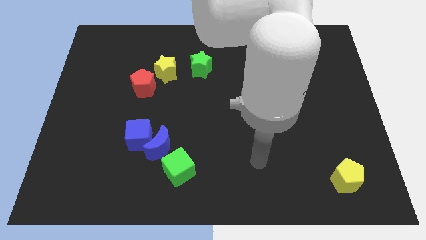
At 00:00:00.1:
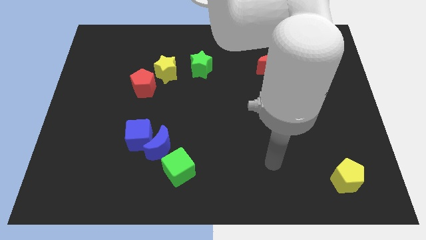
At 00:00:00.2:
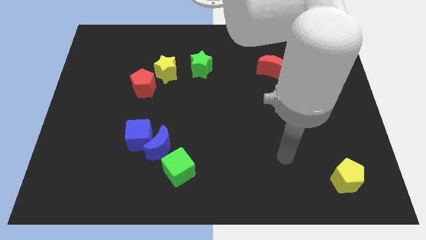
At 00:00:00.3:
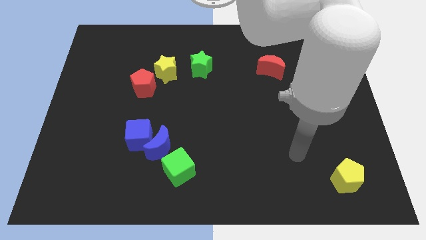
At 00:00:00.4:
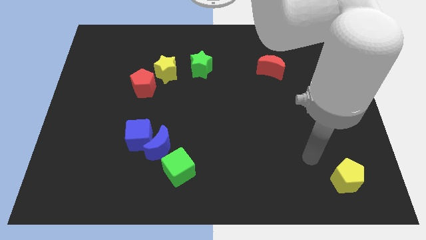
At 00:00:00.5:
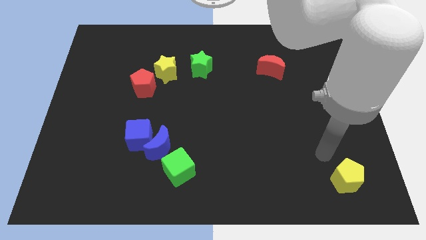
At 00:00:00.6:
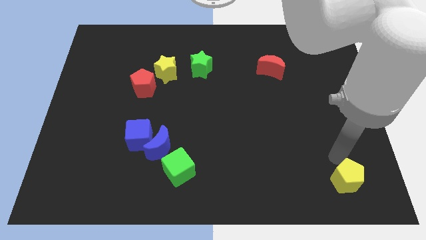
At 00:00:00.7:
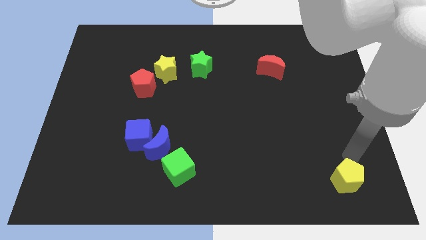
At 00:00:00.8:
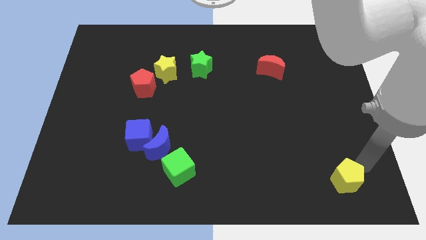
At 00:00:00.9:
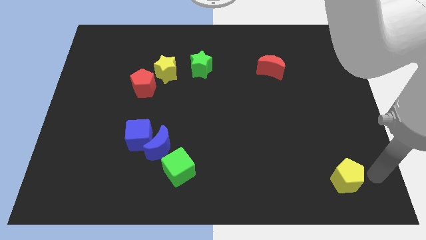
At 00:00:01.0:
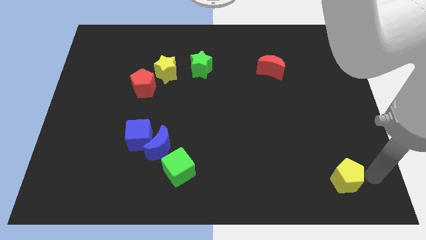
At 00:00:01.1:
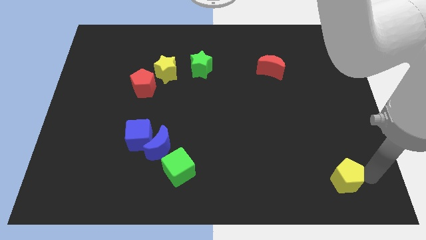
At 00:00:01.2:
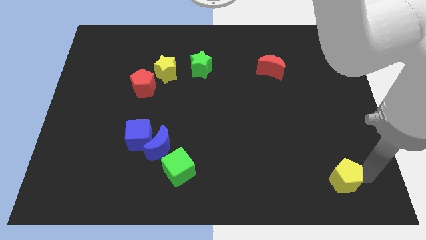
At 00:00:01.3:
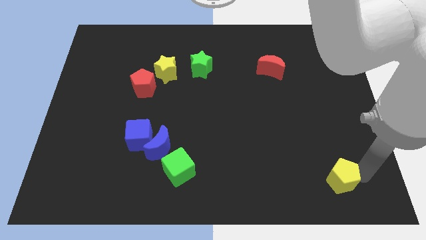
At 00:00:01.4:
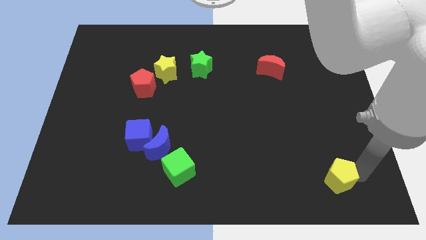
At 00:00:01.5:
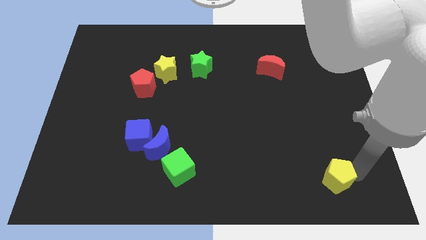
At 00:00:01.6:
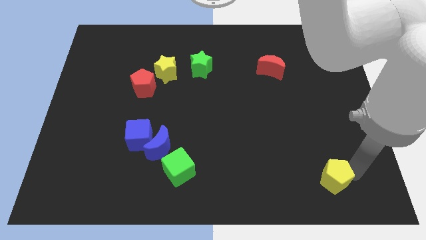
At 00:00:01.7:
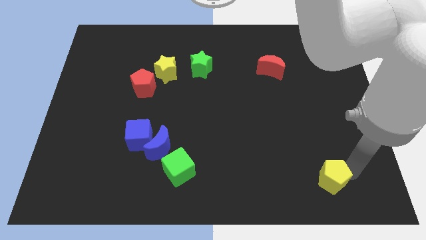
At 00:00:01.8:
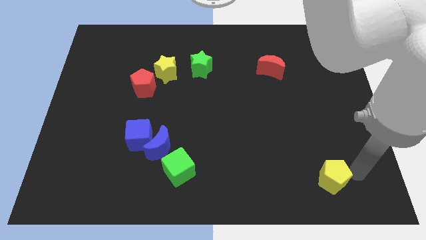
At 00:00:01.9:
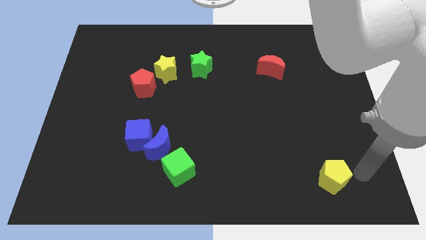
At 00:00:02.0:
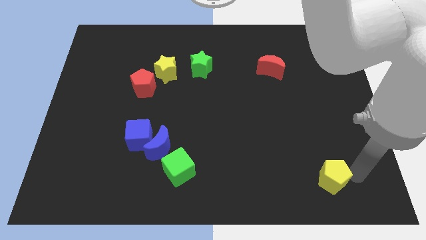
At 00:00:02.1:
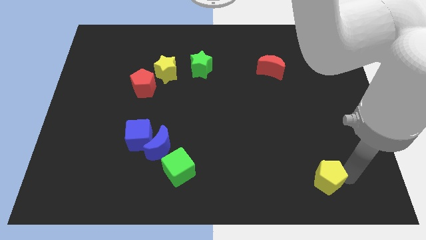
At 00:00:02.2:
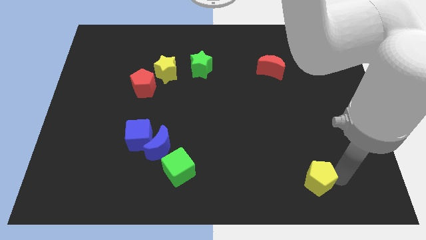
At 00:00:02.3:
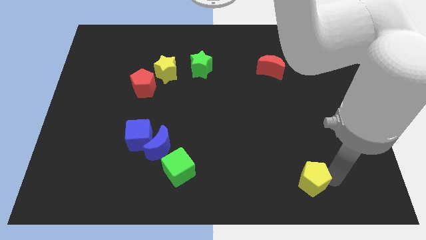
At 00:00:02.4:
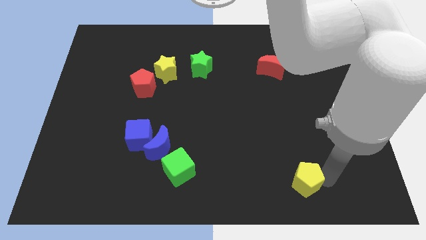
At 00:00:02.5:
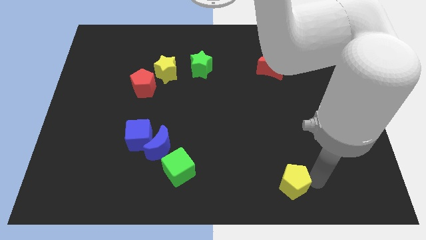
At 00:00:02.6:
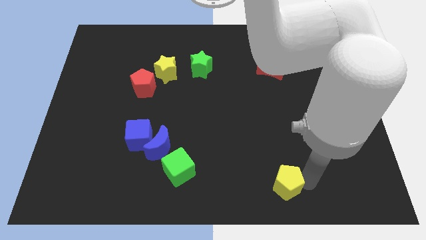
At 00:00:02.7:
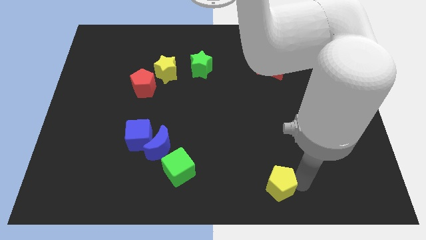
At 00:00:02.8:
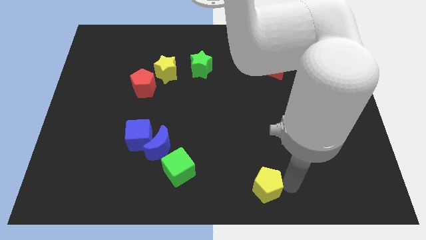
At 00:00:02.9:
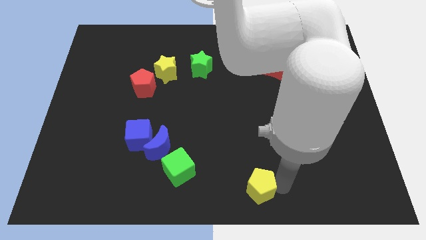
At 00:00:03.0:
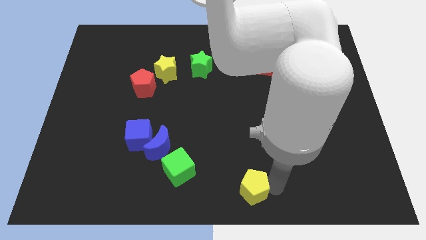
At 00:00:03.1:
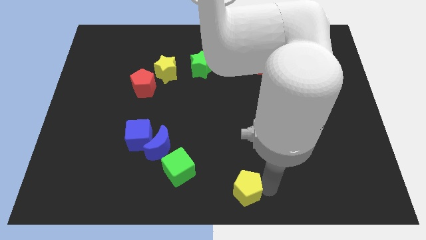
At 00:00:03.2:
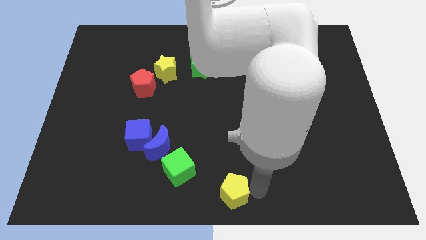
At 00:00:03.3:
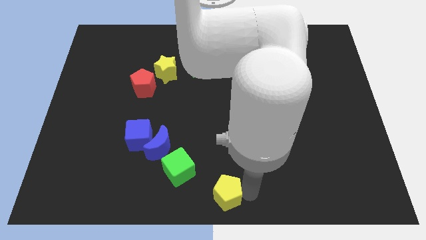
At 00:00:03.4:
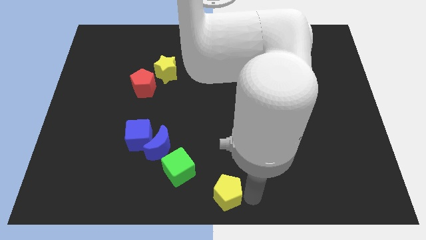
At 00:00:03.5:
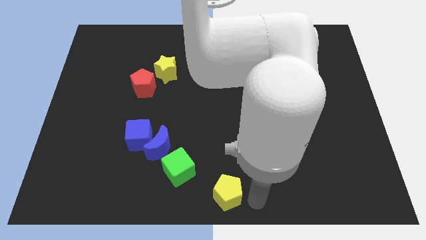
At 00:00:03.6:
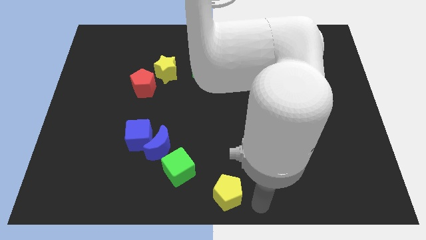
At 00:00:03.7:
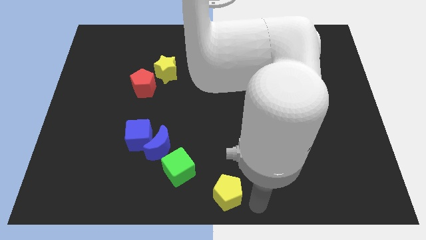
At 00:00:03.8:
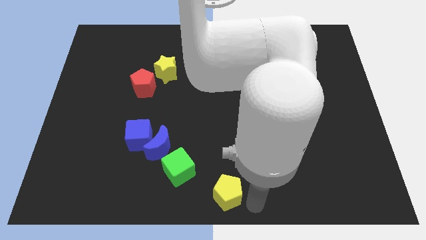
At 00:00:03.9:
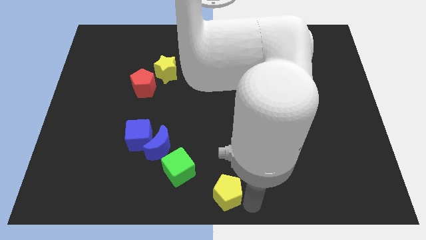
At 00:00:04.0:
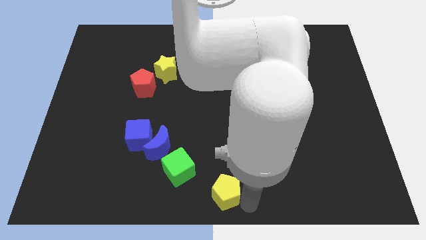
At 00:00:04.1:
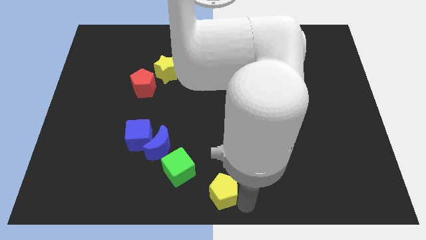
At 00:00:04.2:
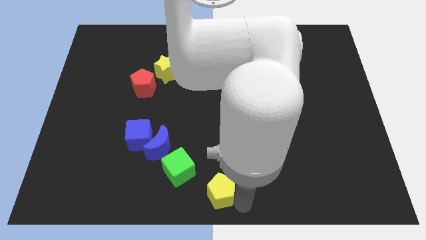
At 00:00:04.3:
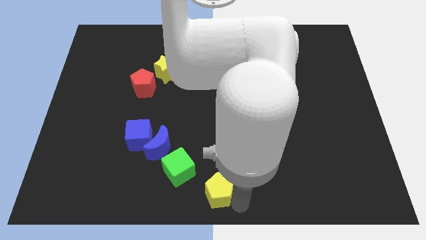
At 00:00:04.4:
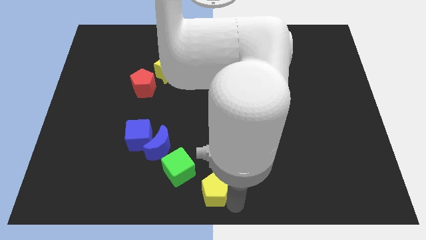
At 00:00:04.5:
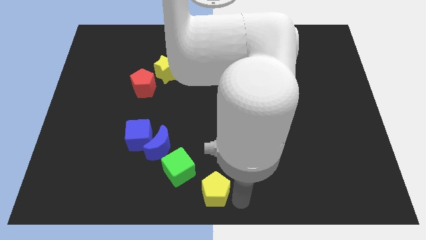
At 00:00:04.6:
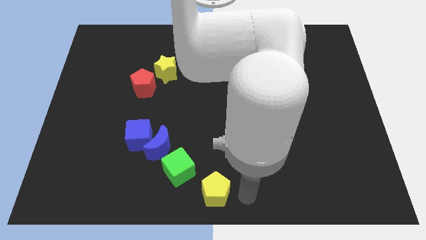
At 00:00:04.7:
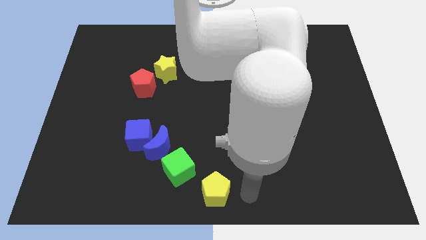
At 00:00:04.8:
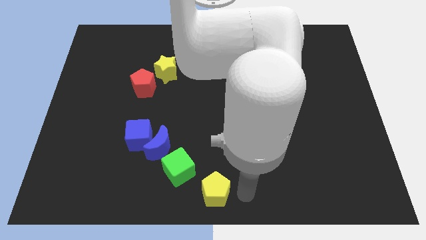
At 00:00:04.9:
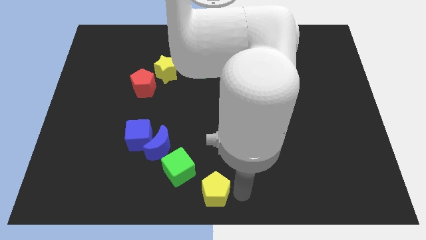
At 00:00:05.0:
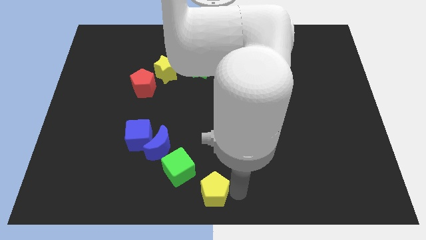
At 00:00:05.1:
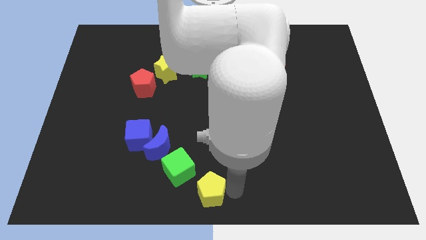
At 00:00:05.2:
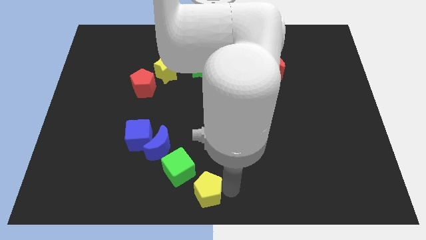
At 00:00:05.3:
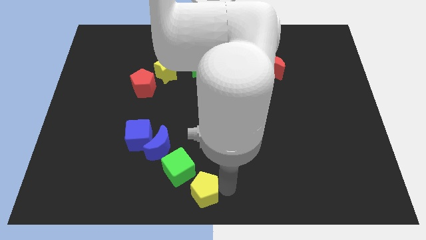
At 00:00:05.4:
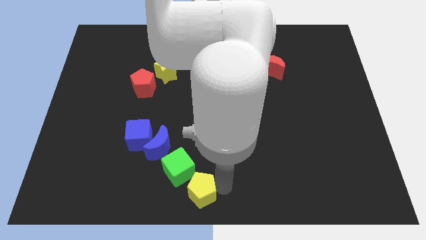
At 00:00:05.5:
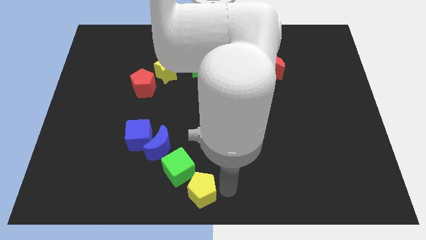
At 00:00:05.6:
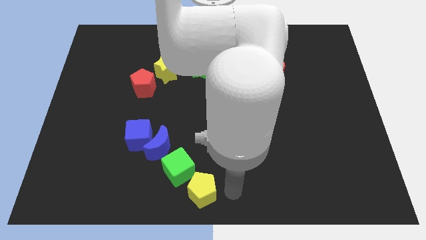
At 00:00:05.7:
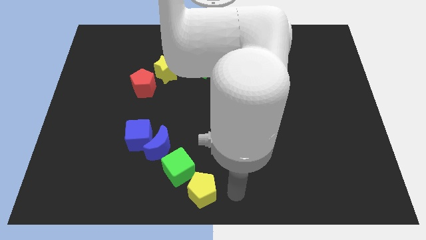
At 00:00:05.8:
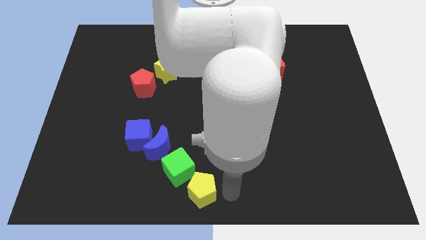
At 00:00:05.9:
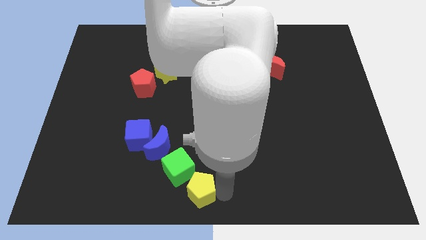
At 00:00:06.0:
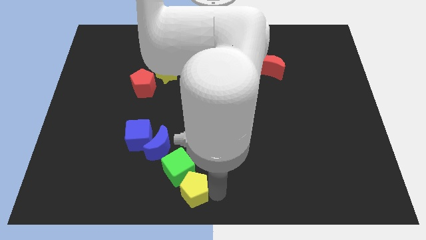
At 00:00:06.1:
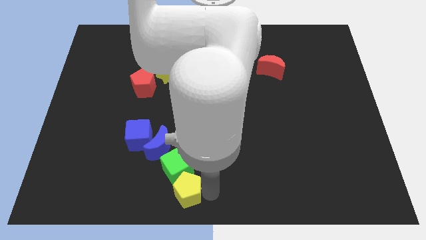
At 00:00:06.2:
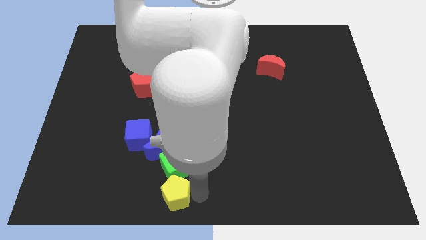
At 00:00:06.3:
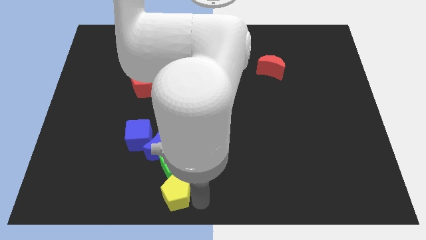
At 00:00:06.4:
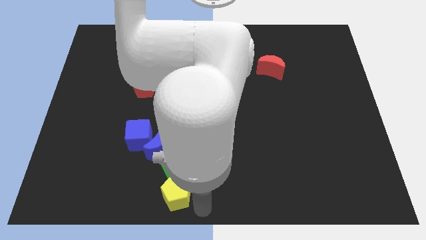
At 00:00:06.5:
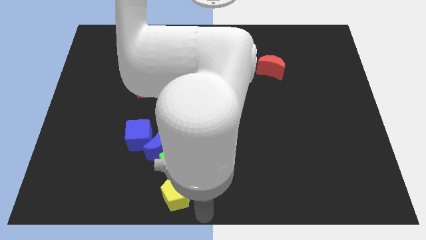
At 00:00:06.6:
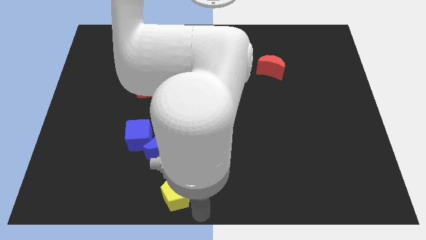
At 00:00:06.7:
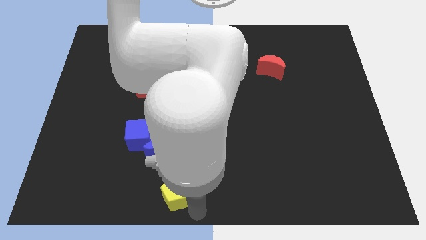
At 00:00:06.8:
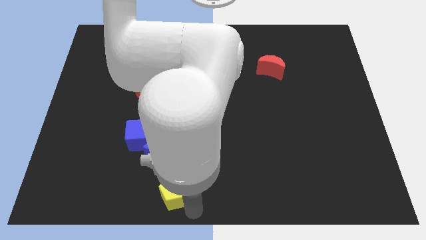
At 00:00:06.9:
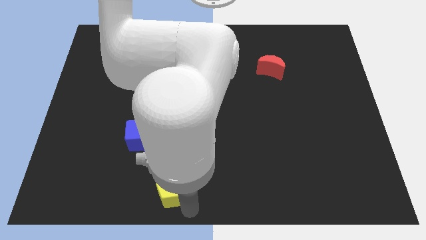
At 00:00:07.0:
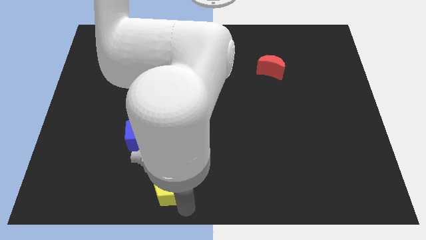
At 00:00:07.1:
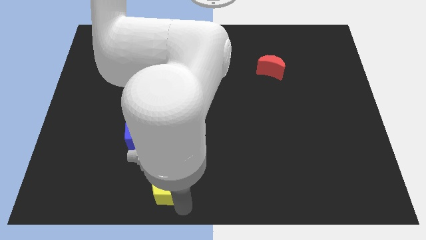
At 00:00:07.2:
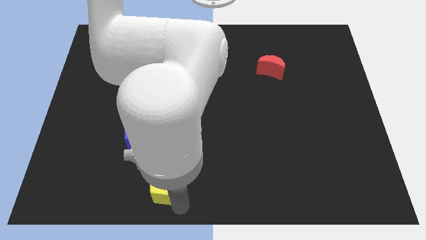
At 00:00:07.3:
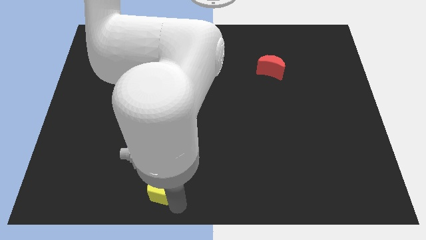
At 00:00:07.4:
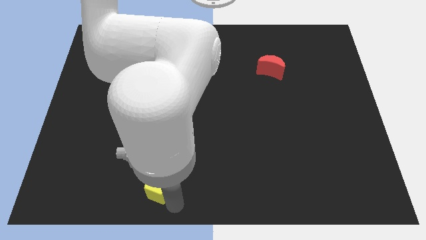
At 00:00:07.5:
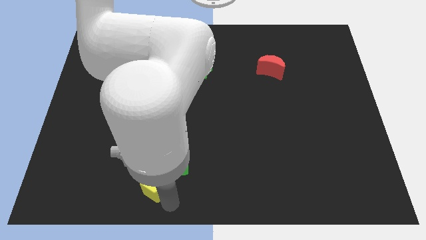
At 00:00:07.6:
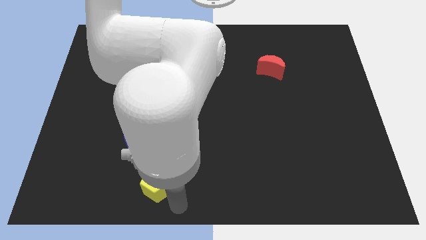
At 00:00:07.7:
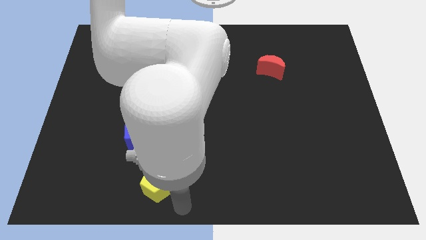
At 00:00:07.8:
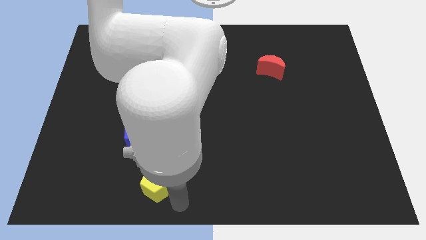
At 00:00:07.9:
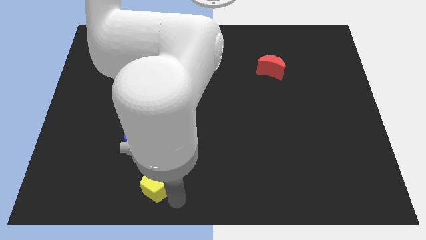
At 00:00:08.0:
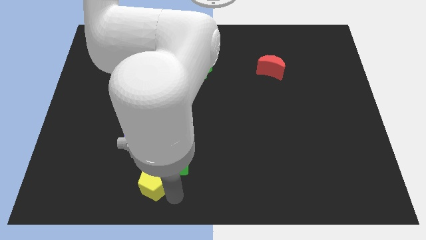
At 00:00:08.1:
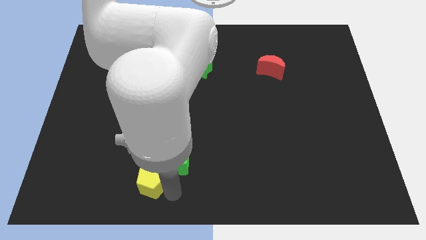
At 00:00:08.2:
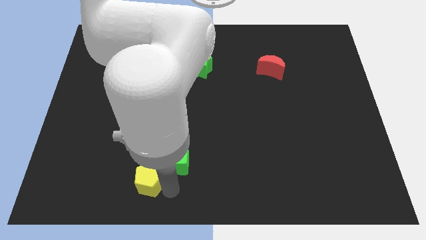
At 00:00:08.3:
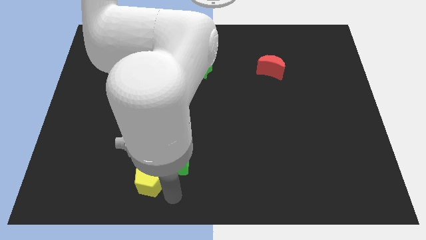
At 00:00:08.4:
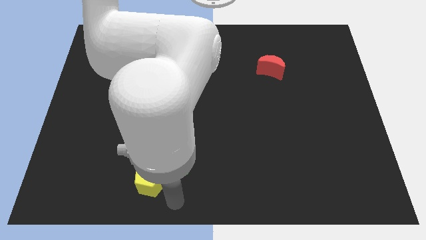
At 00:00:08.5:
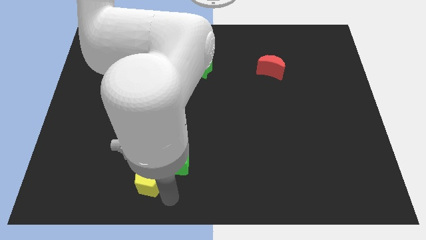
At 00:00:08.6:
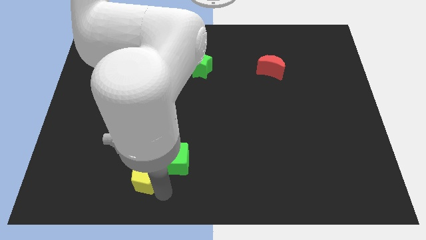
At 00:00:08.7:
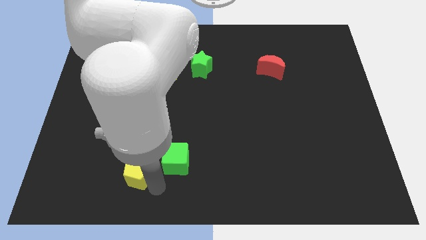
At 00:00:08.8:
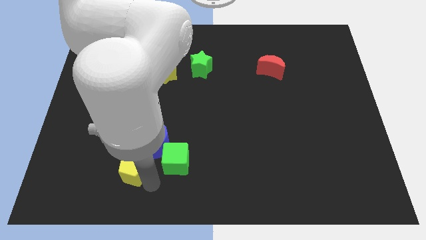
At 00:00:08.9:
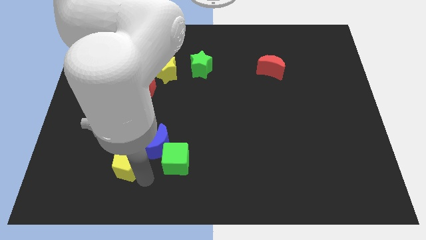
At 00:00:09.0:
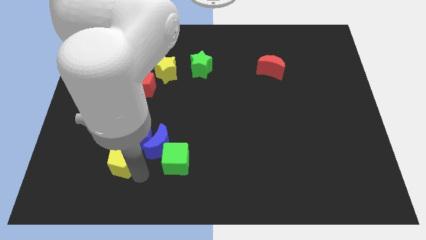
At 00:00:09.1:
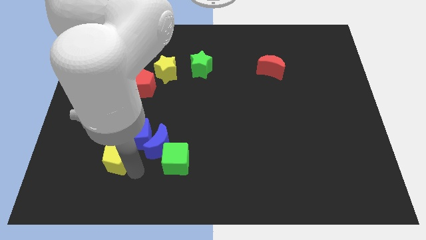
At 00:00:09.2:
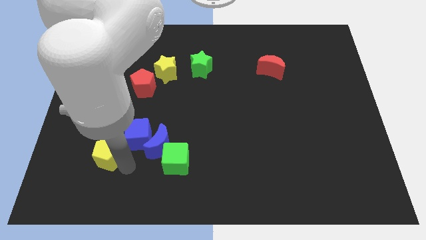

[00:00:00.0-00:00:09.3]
push the yellow pentagon just left of the blue cube
